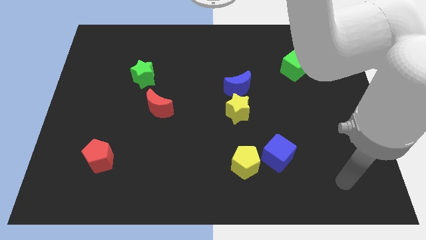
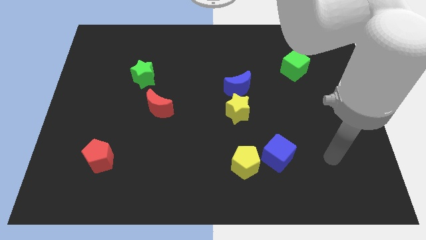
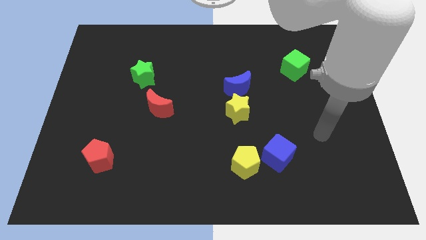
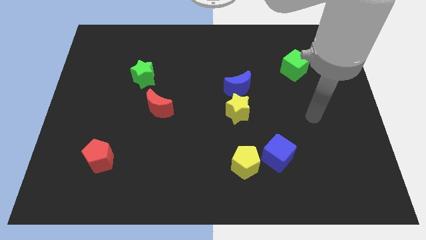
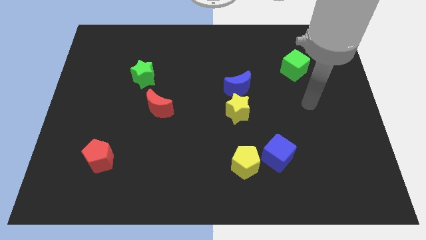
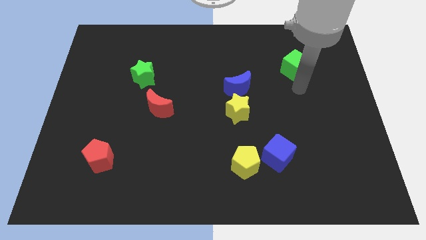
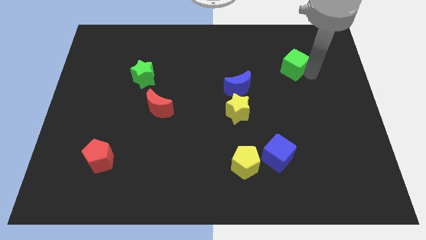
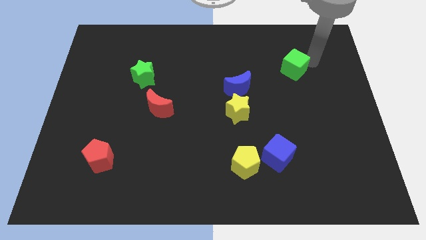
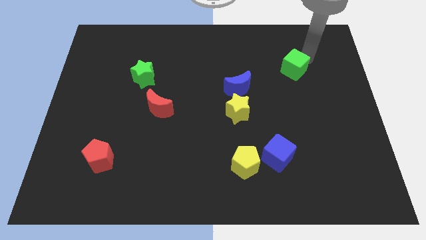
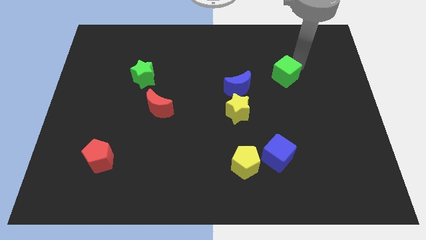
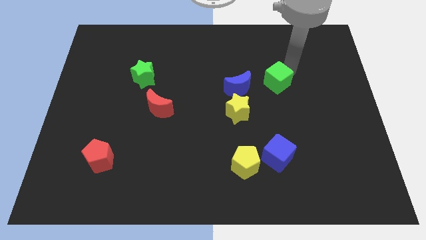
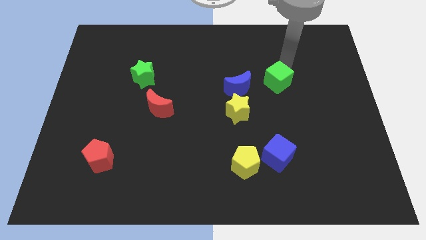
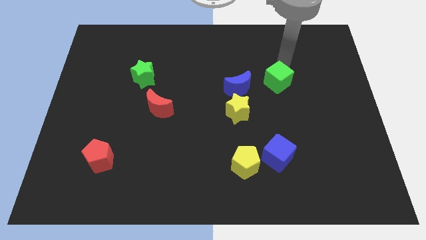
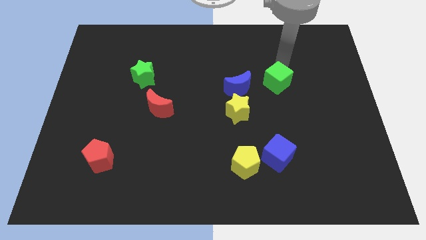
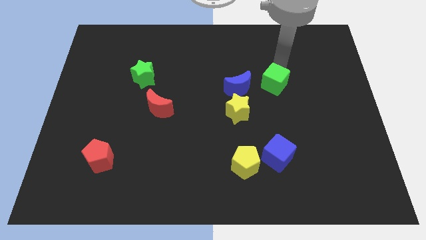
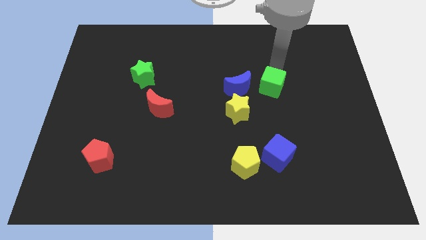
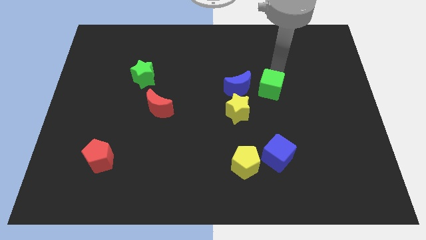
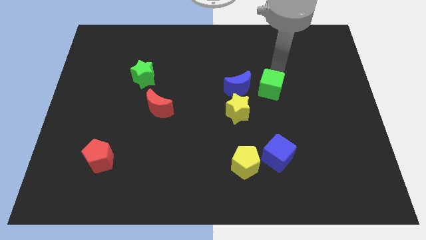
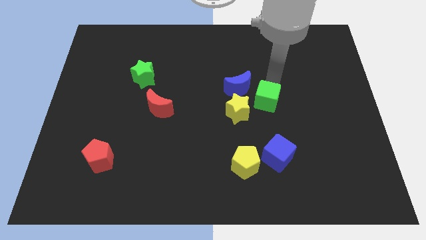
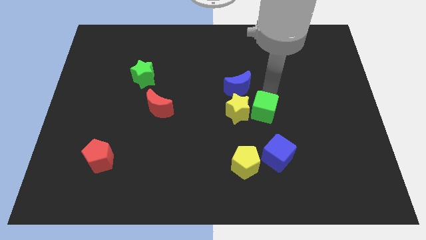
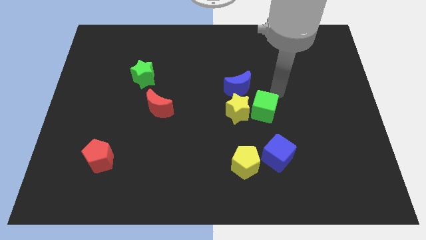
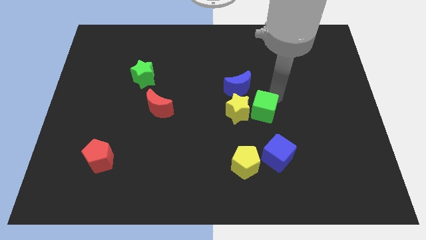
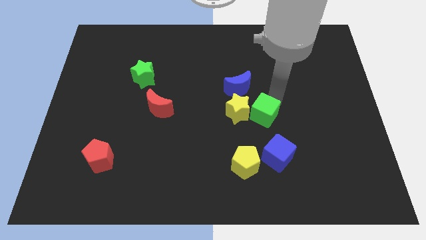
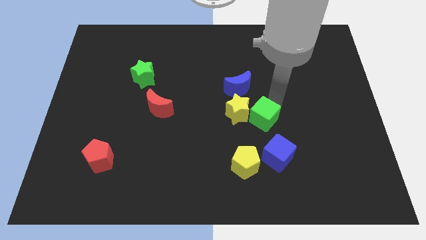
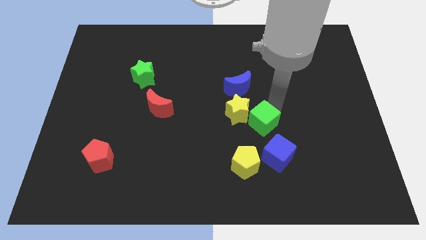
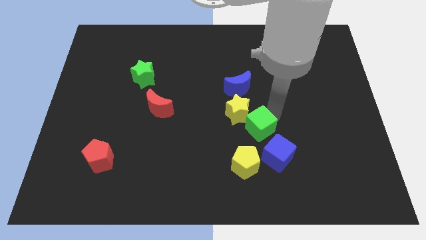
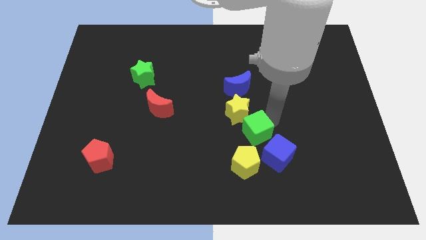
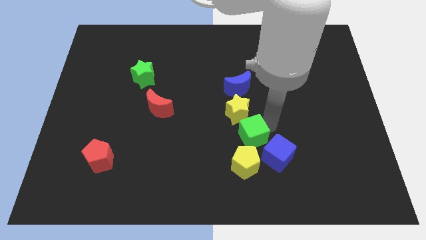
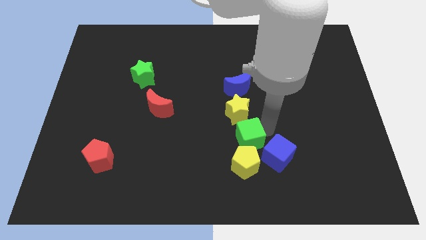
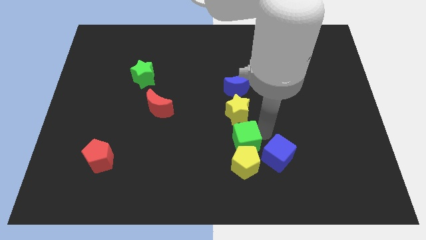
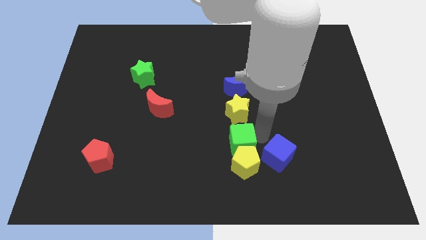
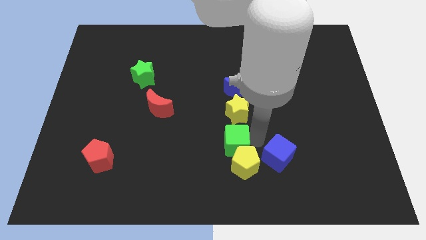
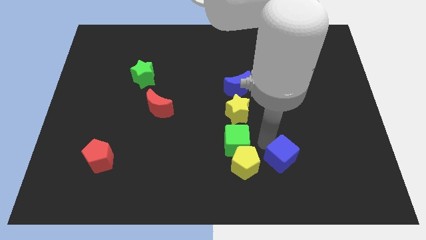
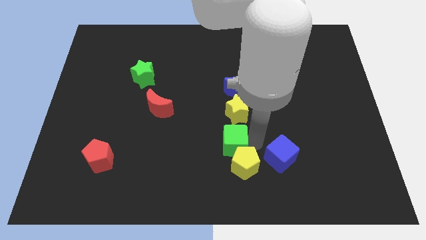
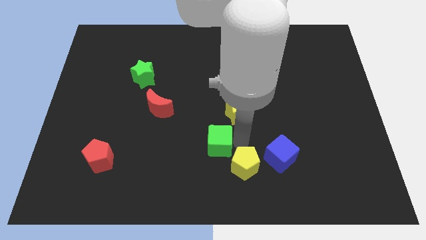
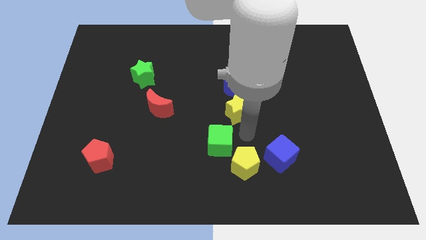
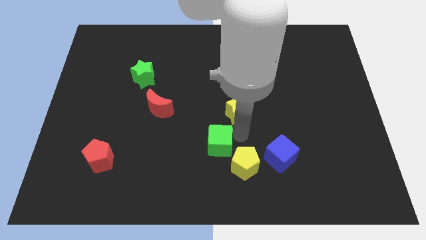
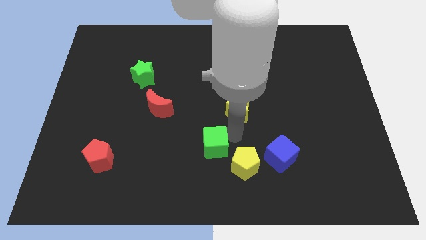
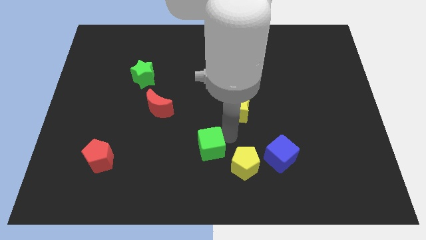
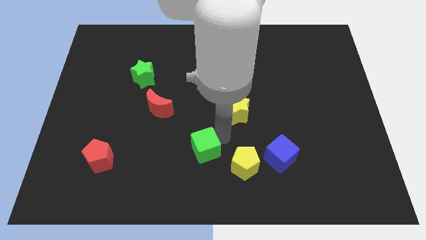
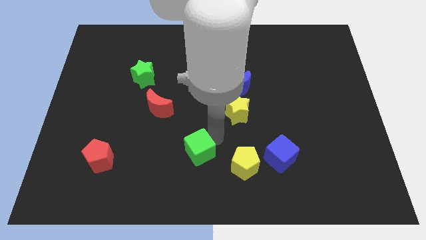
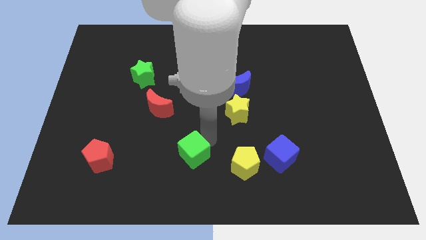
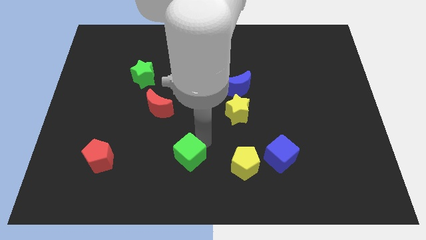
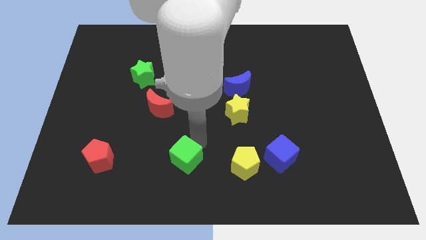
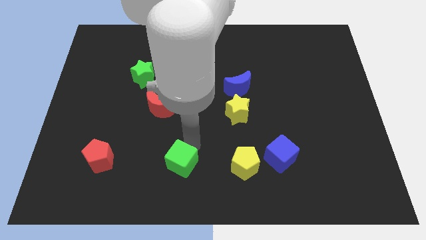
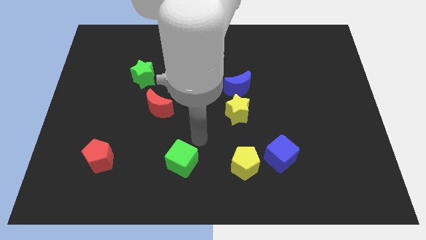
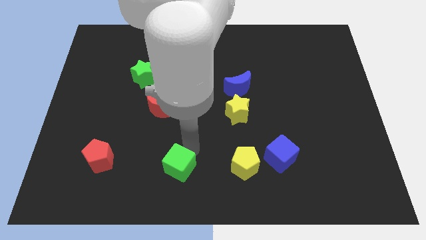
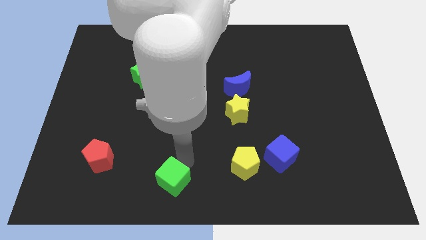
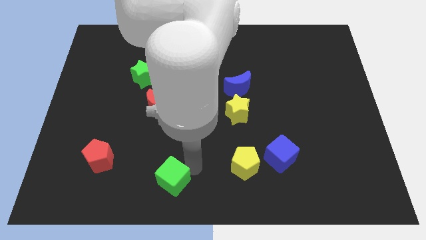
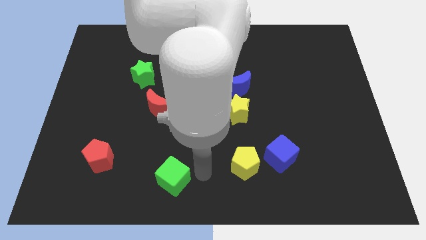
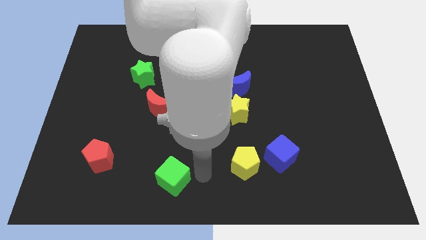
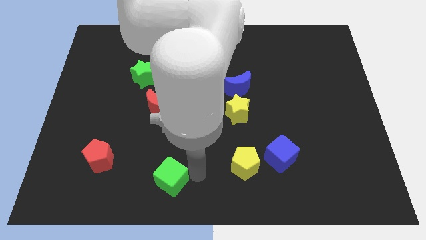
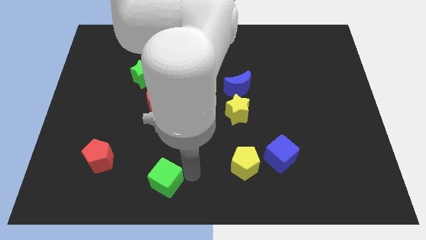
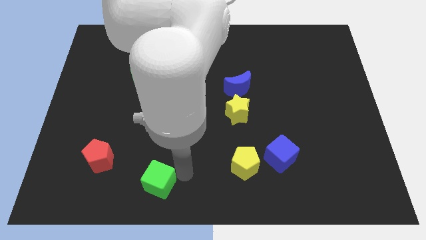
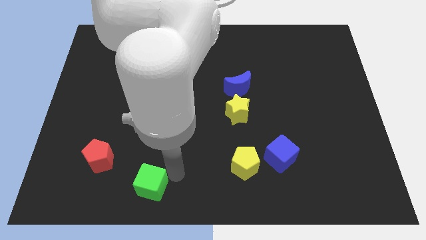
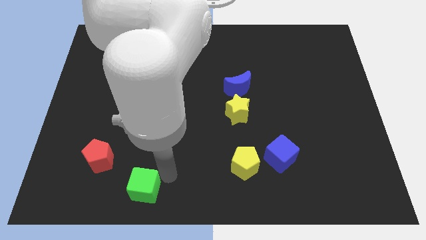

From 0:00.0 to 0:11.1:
slide the green cube diagonally down and to the right of the red pentagon

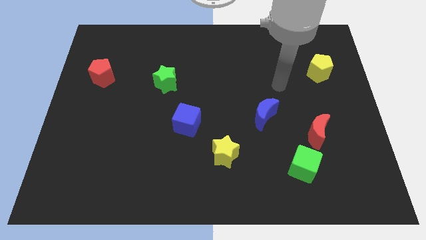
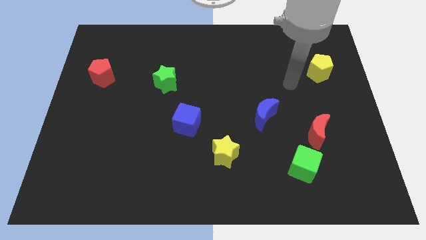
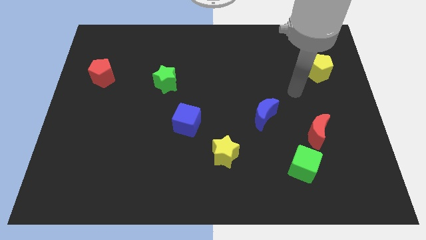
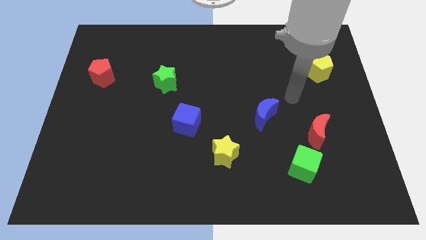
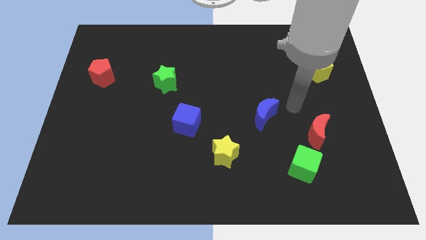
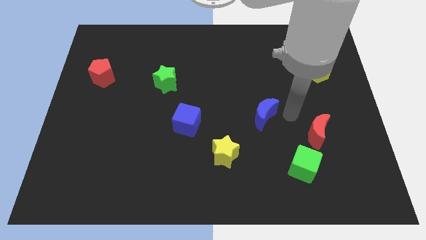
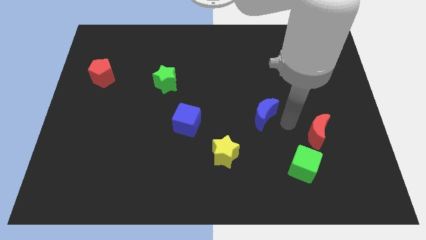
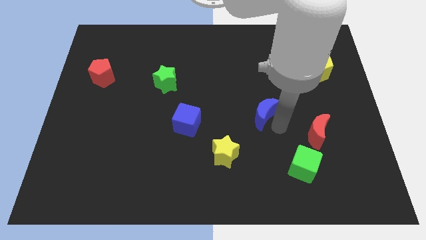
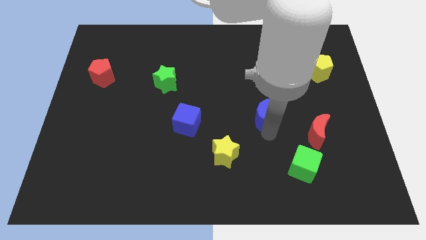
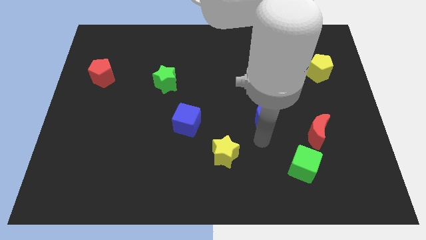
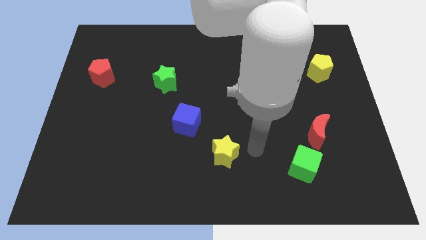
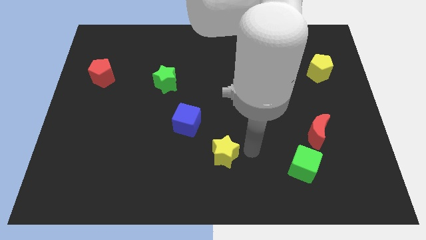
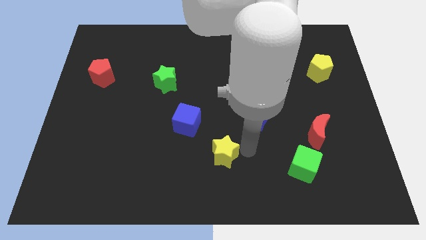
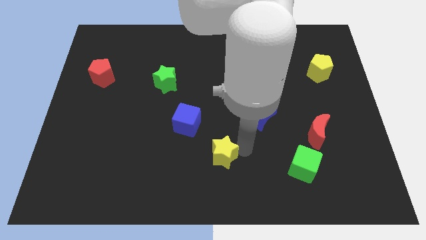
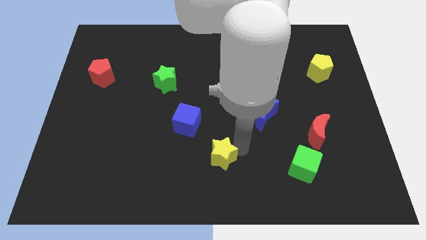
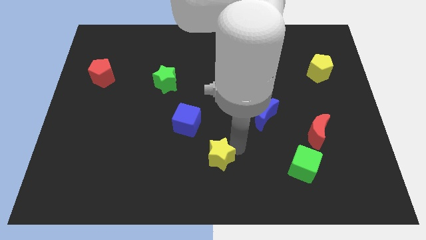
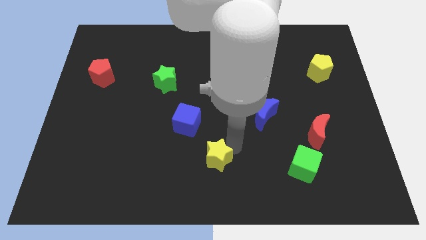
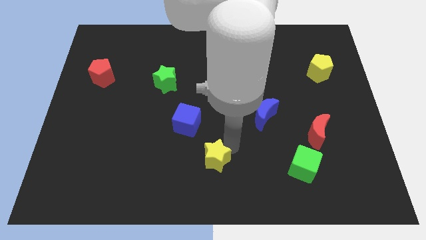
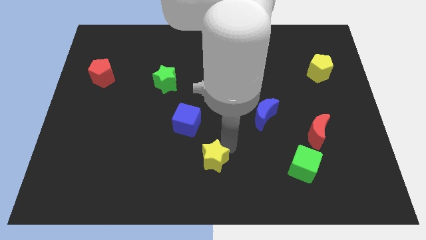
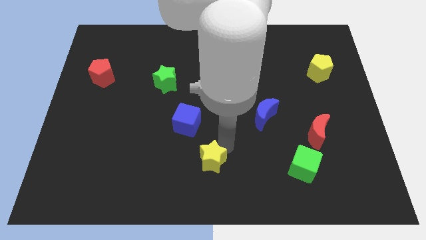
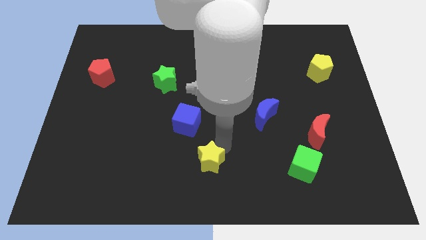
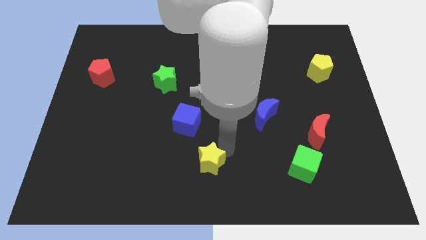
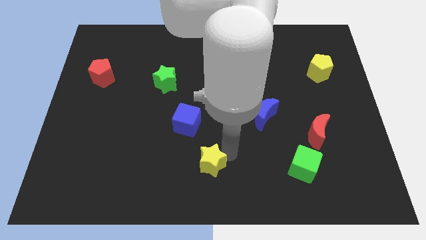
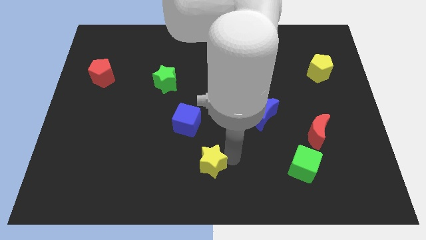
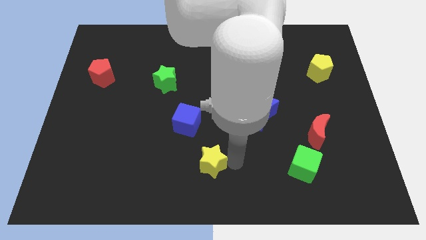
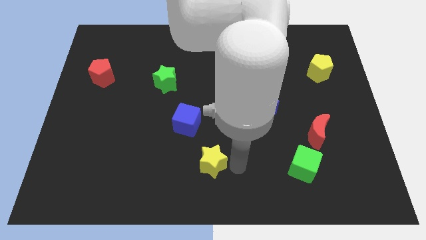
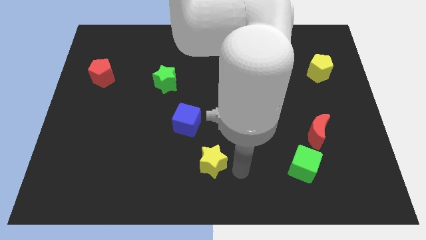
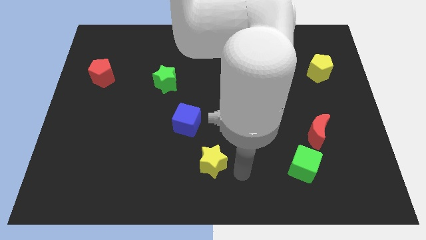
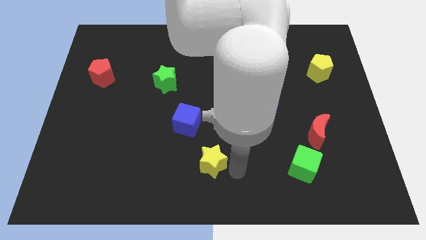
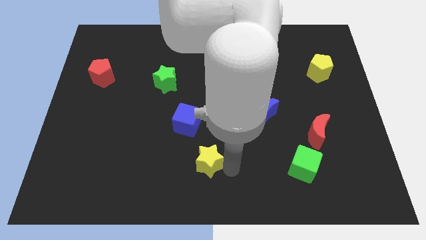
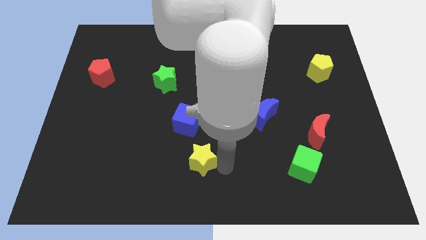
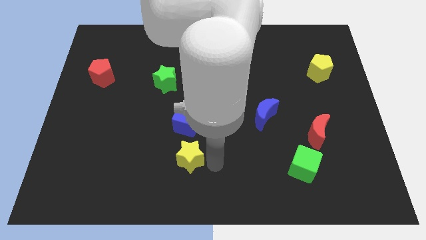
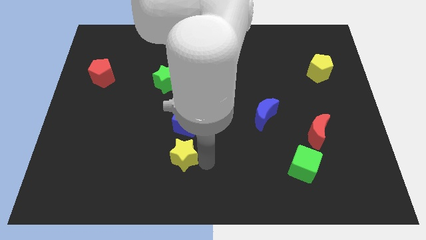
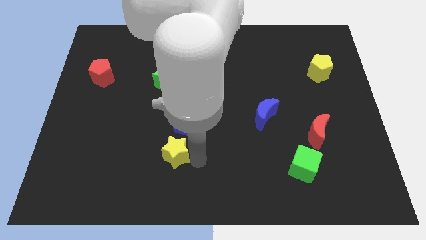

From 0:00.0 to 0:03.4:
put the yellow star diagonally down and to the left of the blue cube
